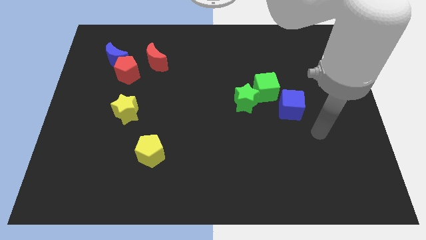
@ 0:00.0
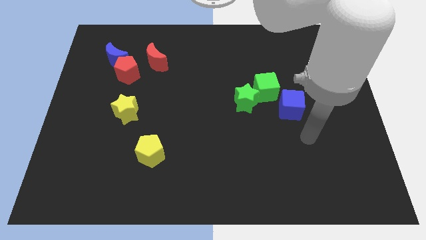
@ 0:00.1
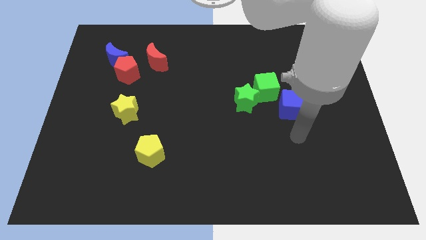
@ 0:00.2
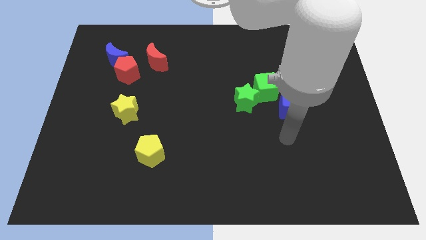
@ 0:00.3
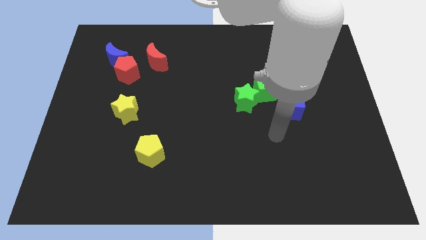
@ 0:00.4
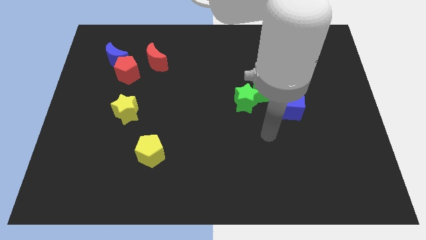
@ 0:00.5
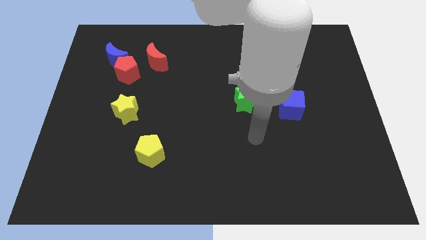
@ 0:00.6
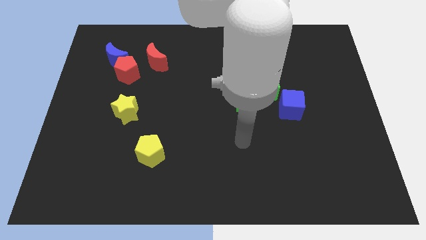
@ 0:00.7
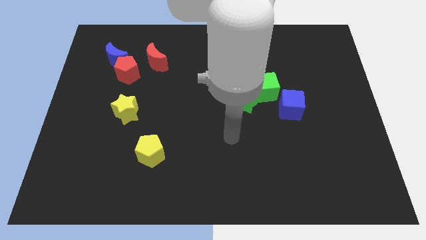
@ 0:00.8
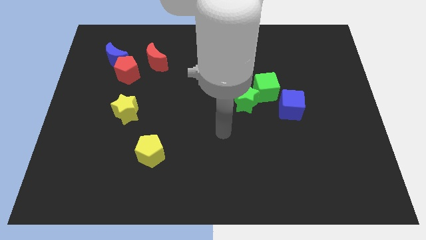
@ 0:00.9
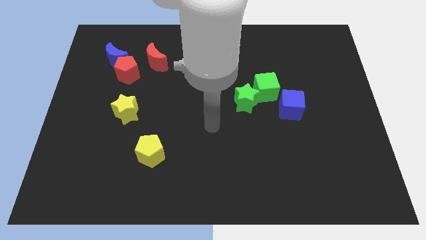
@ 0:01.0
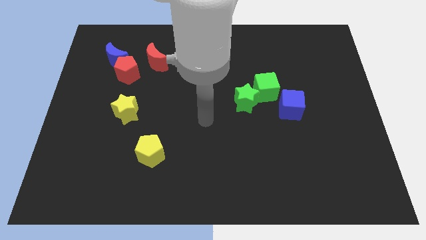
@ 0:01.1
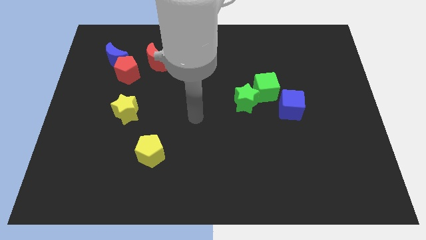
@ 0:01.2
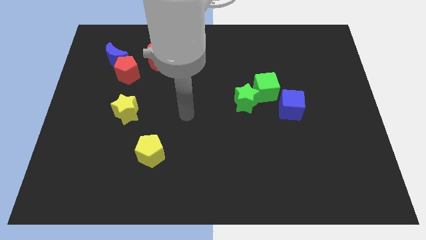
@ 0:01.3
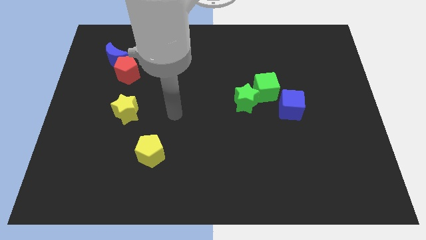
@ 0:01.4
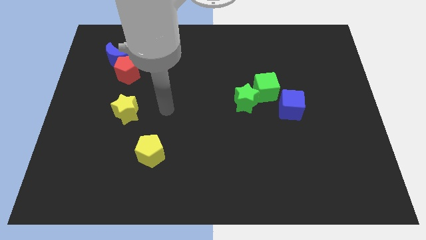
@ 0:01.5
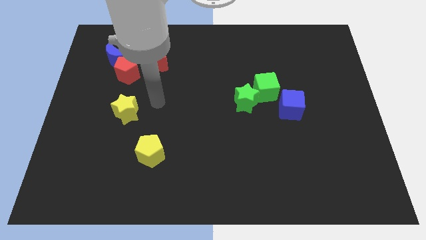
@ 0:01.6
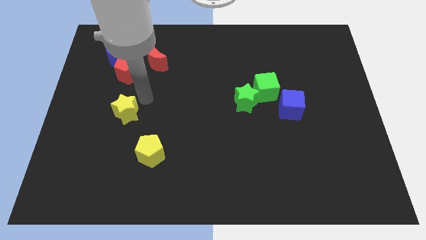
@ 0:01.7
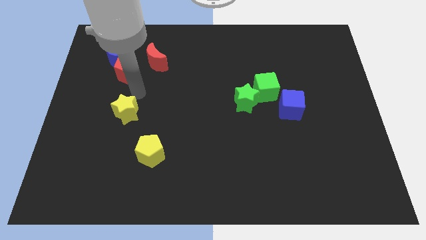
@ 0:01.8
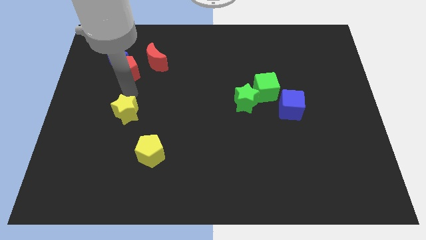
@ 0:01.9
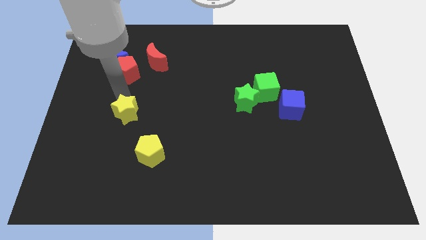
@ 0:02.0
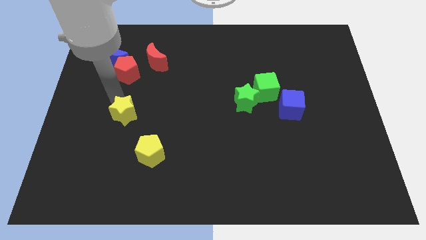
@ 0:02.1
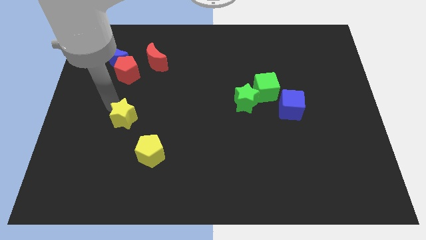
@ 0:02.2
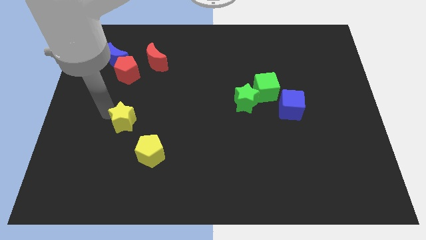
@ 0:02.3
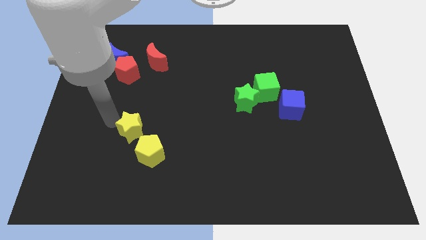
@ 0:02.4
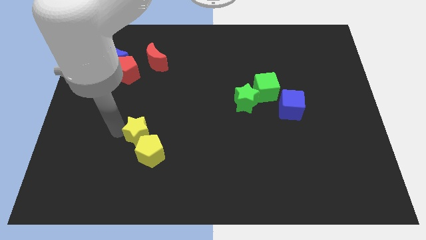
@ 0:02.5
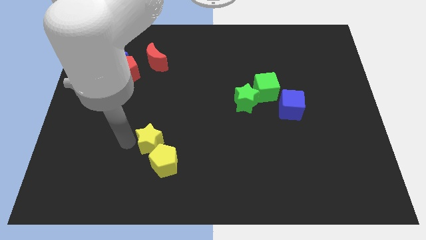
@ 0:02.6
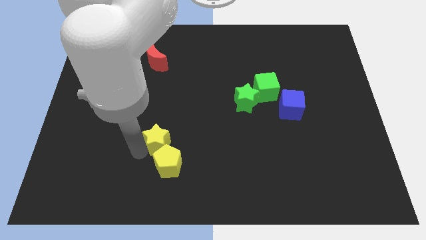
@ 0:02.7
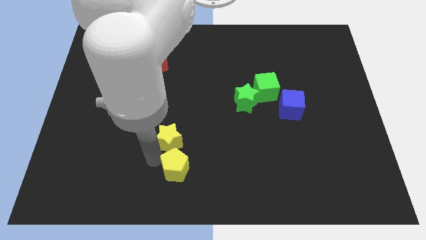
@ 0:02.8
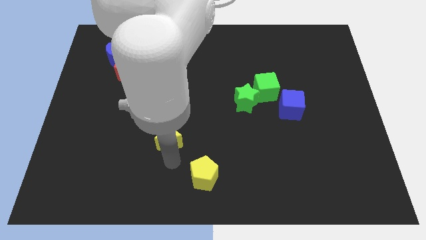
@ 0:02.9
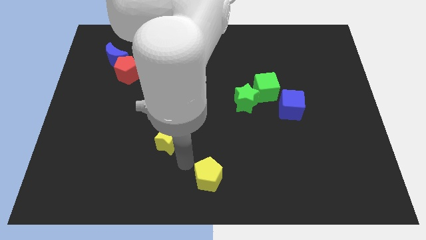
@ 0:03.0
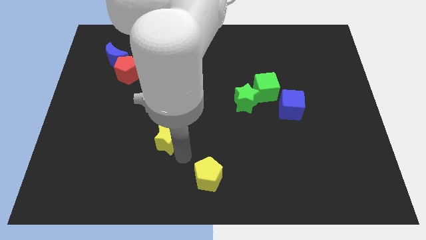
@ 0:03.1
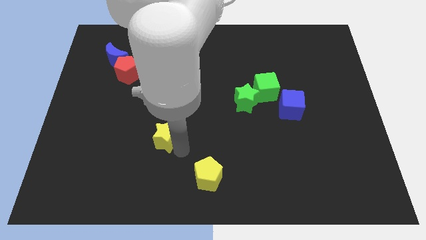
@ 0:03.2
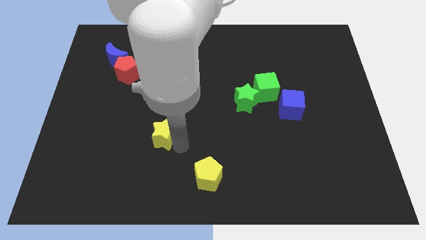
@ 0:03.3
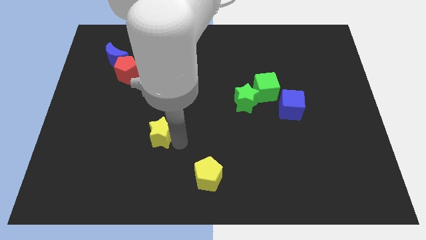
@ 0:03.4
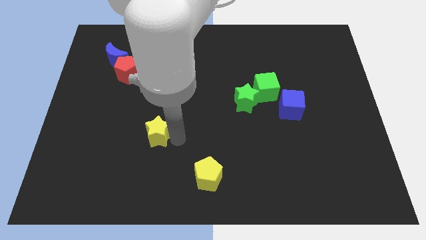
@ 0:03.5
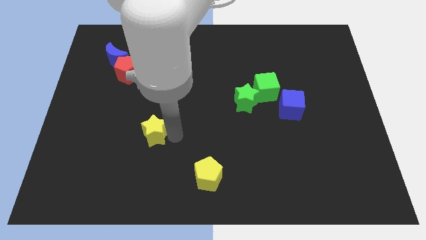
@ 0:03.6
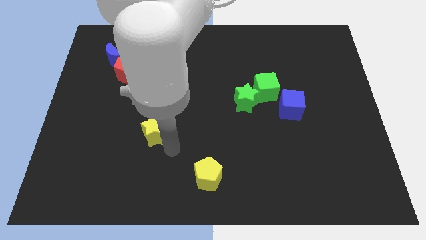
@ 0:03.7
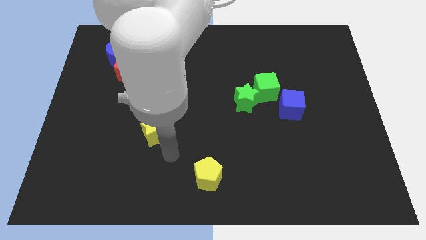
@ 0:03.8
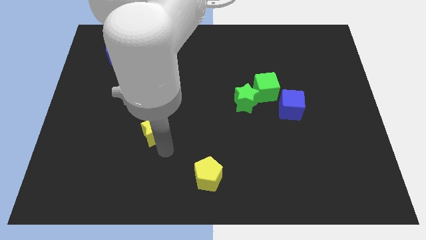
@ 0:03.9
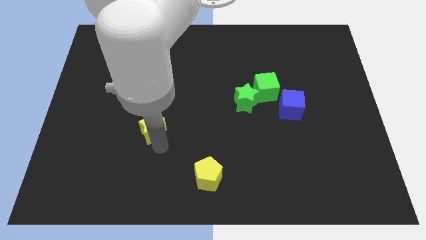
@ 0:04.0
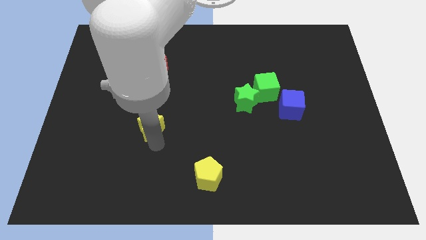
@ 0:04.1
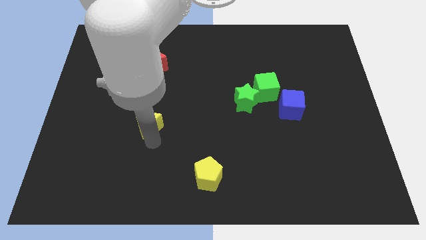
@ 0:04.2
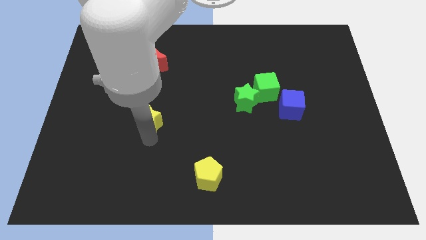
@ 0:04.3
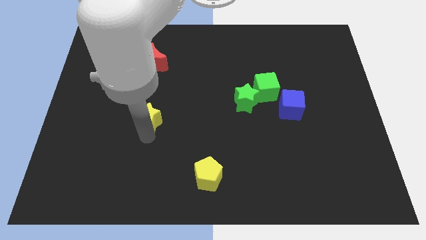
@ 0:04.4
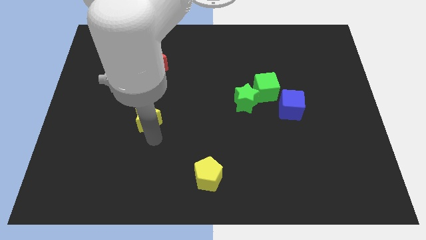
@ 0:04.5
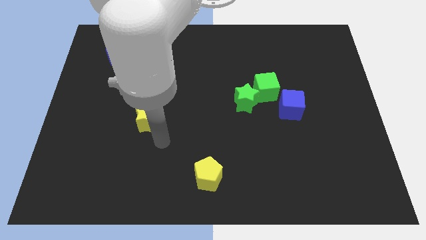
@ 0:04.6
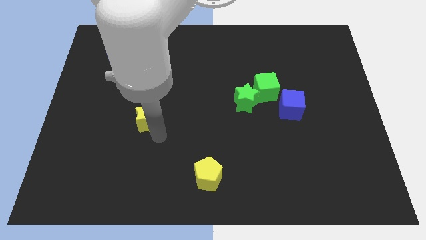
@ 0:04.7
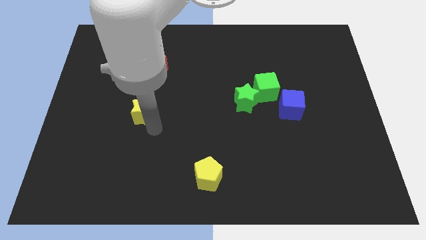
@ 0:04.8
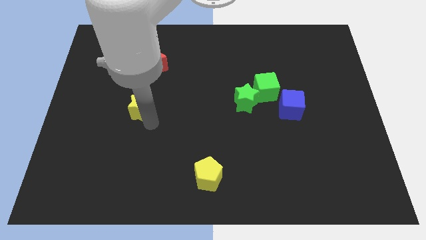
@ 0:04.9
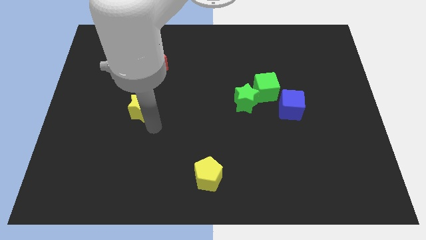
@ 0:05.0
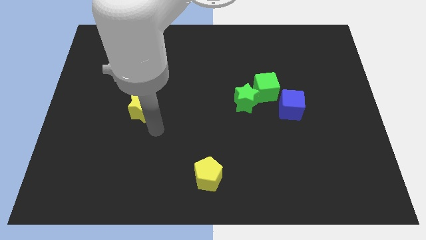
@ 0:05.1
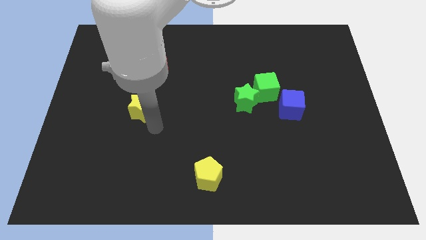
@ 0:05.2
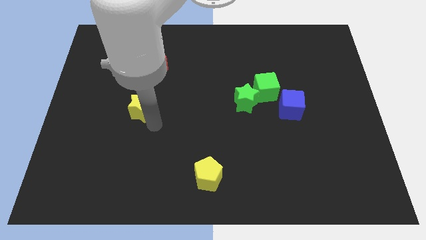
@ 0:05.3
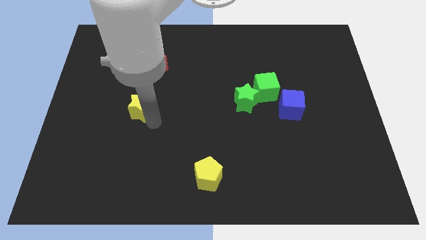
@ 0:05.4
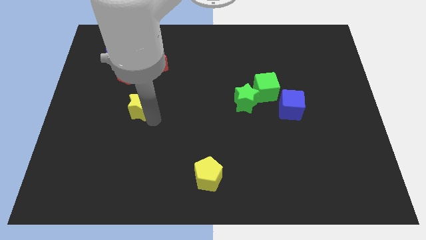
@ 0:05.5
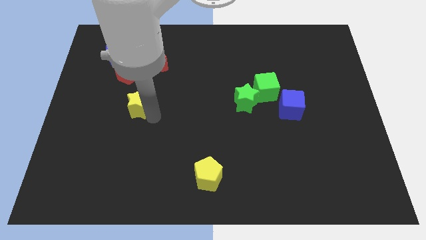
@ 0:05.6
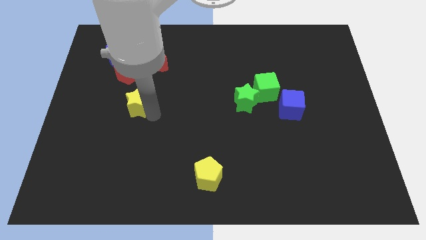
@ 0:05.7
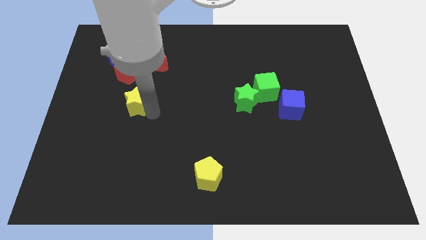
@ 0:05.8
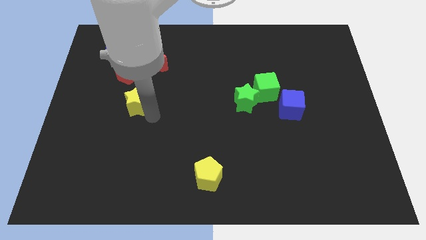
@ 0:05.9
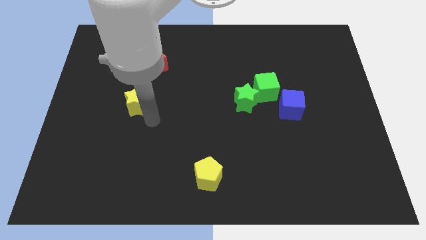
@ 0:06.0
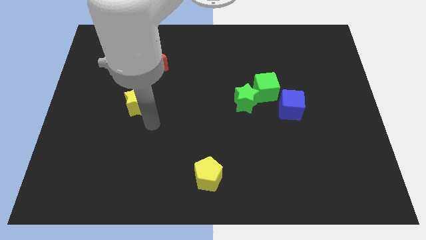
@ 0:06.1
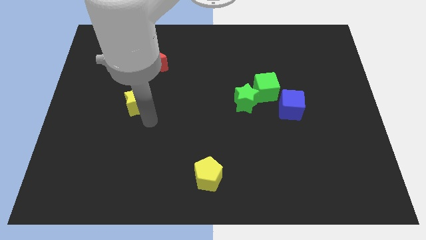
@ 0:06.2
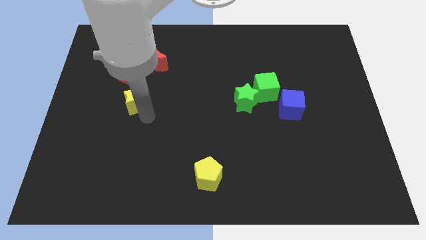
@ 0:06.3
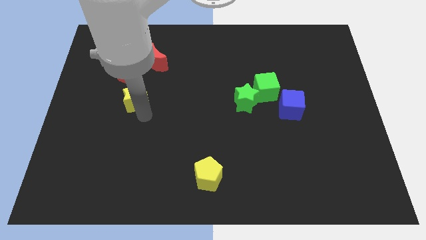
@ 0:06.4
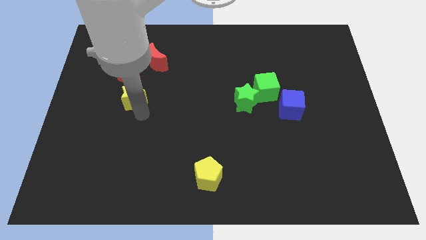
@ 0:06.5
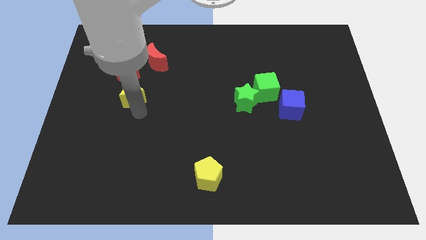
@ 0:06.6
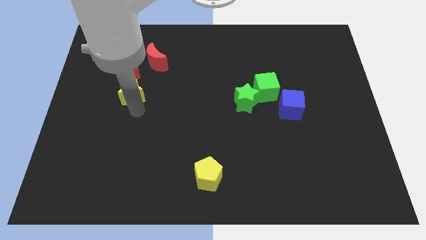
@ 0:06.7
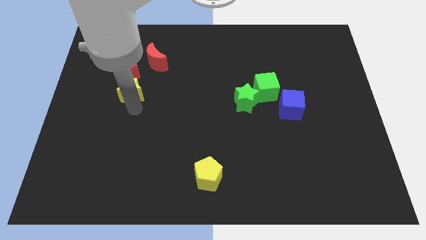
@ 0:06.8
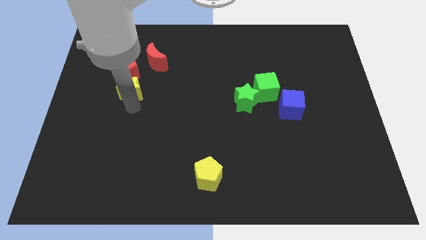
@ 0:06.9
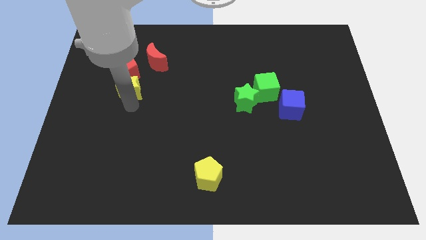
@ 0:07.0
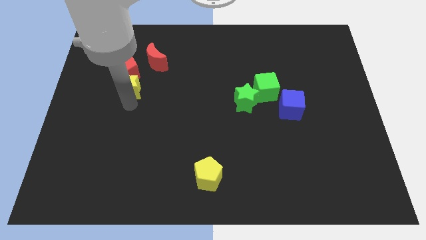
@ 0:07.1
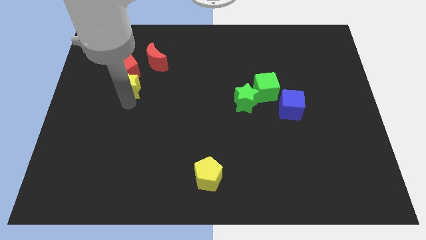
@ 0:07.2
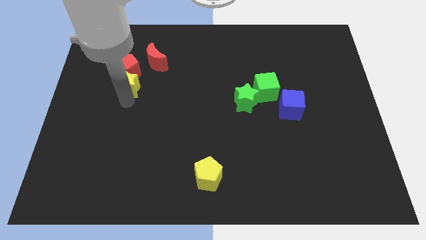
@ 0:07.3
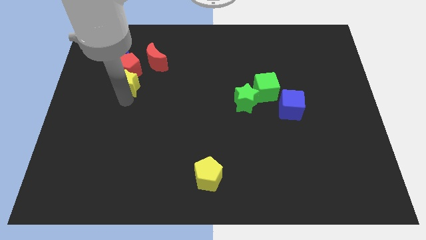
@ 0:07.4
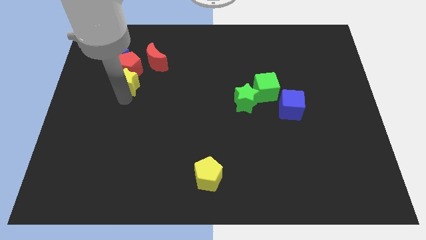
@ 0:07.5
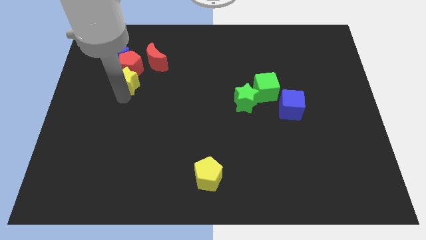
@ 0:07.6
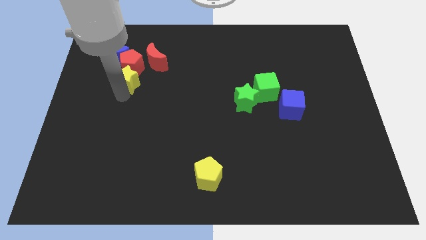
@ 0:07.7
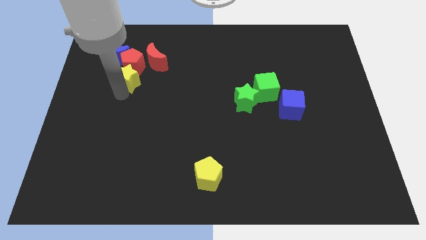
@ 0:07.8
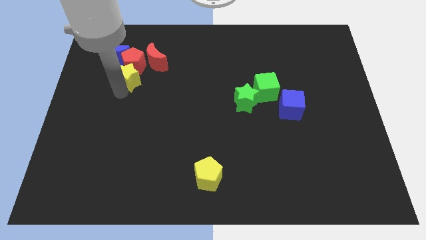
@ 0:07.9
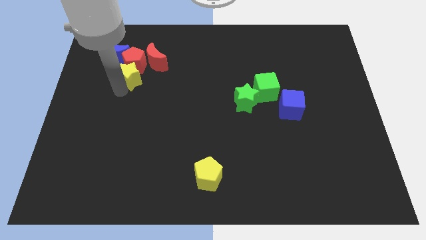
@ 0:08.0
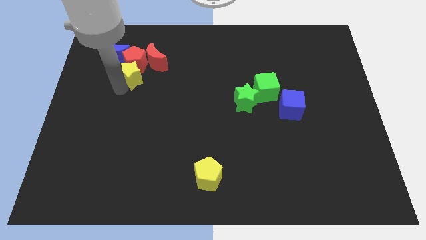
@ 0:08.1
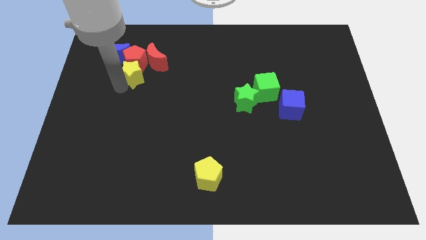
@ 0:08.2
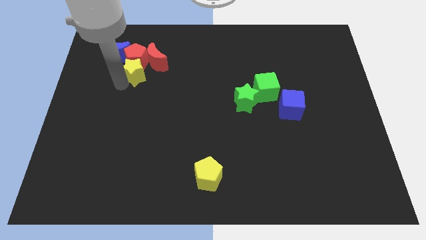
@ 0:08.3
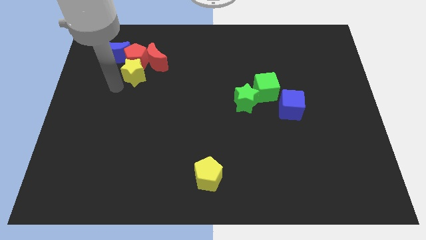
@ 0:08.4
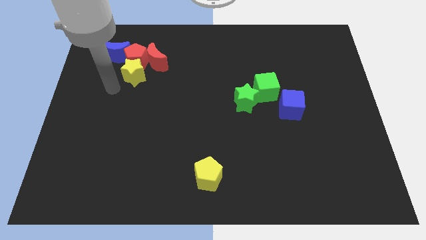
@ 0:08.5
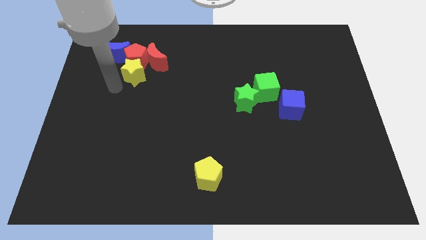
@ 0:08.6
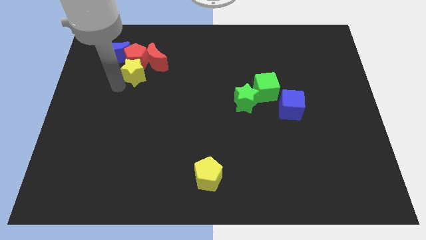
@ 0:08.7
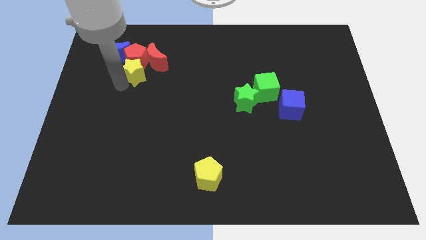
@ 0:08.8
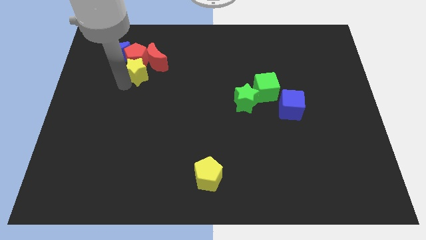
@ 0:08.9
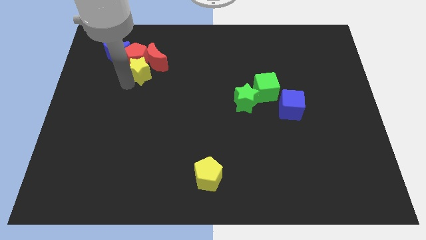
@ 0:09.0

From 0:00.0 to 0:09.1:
slide the yellow star towards the red moon
